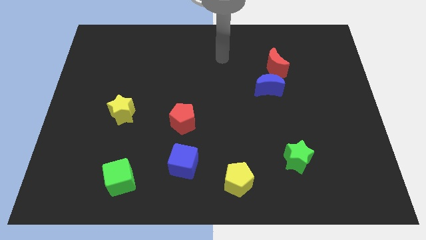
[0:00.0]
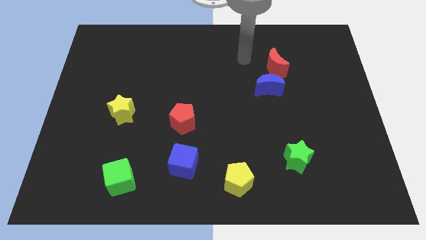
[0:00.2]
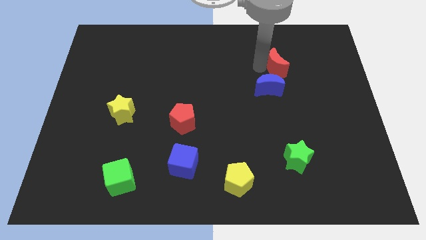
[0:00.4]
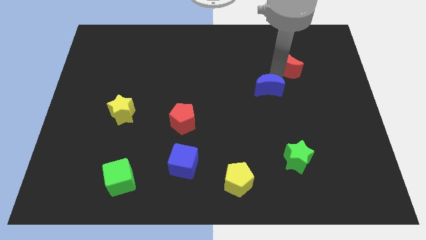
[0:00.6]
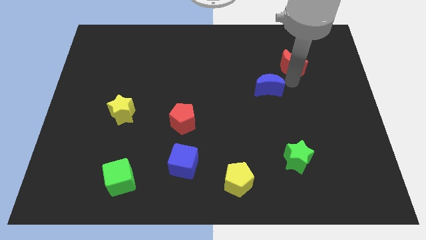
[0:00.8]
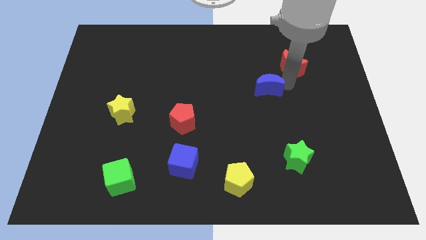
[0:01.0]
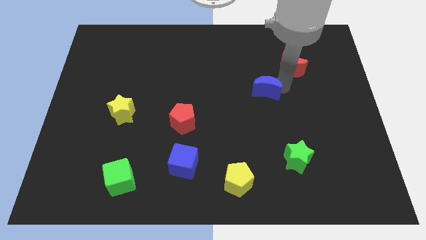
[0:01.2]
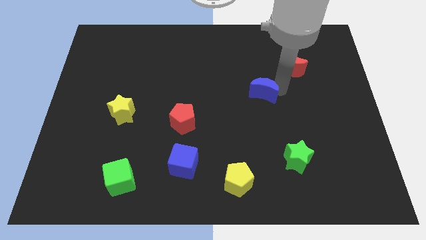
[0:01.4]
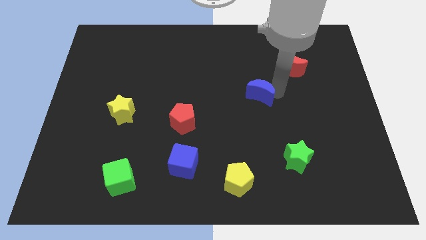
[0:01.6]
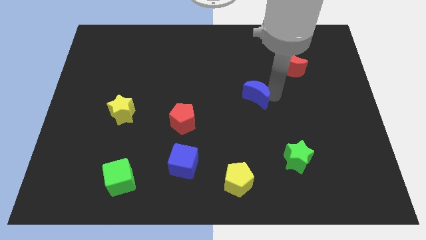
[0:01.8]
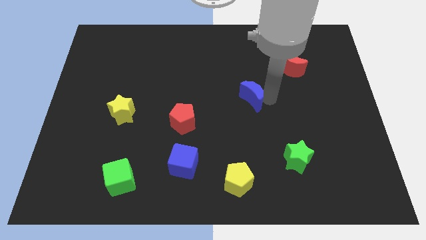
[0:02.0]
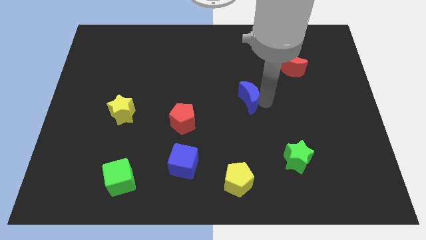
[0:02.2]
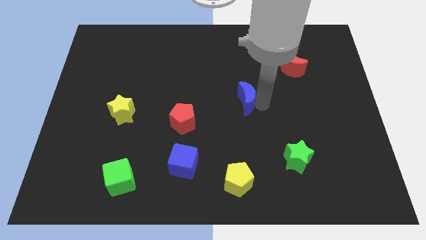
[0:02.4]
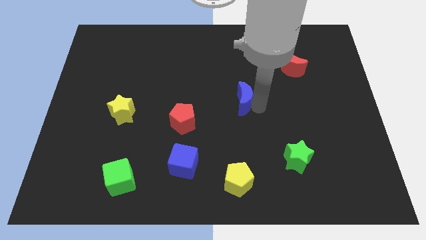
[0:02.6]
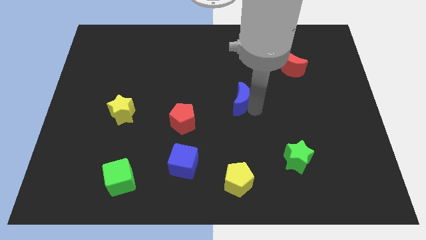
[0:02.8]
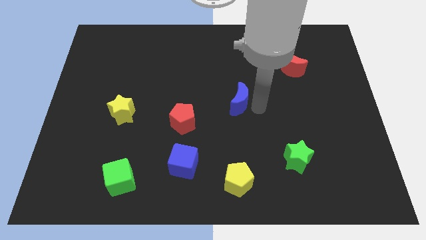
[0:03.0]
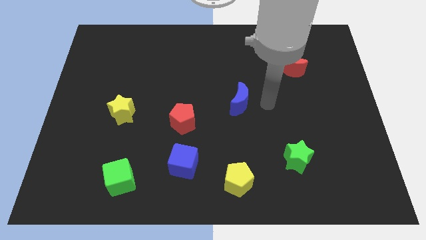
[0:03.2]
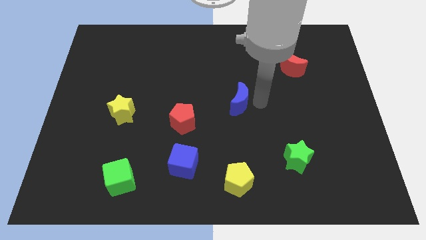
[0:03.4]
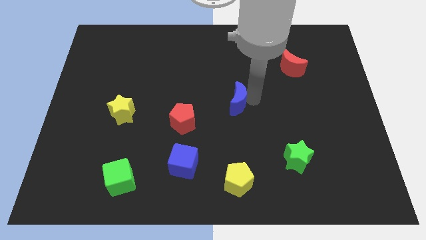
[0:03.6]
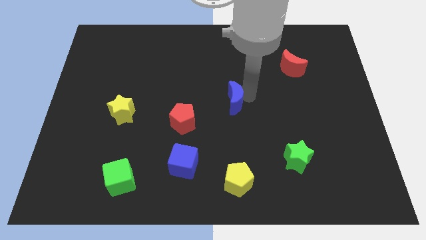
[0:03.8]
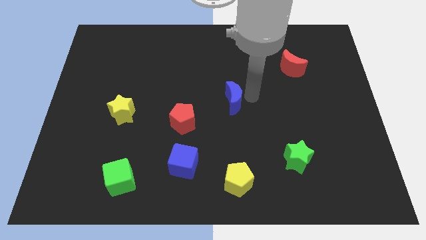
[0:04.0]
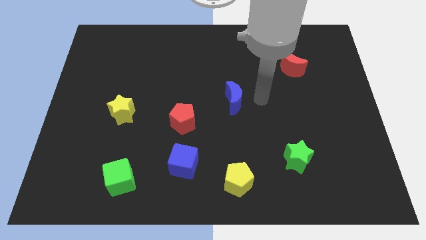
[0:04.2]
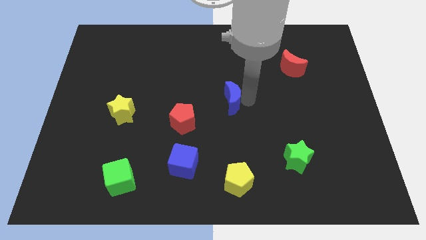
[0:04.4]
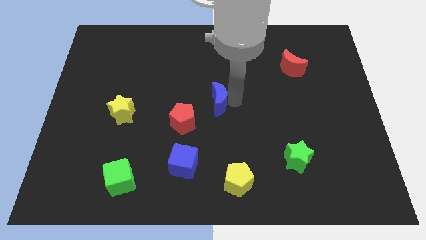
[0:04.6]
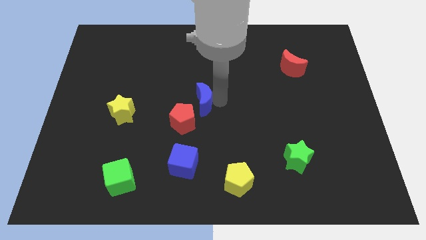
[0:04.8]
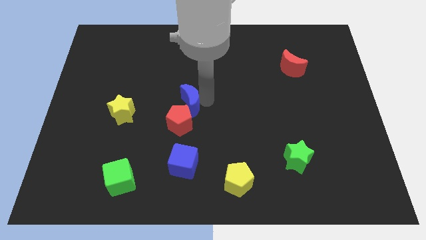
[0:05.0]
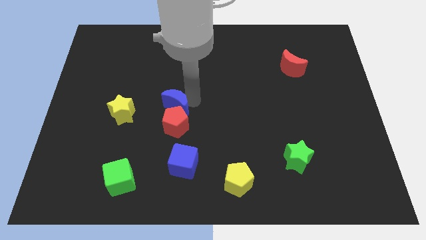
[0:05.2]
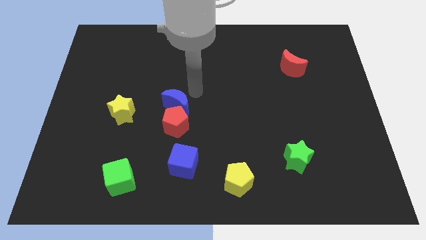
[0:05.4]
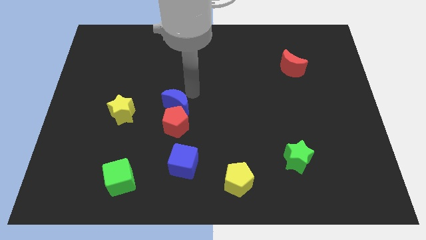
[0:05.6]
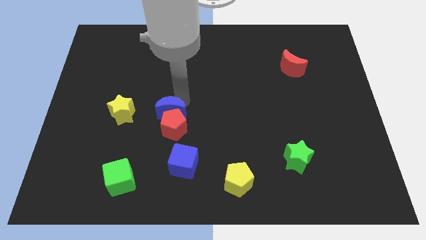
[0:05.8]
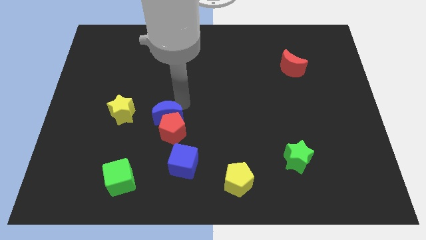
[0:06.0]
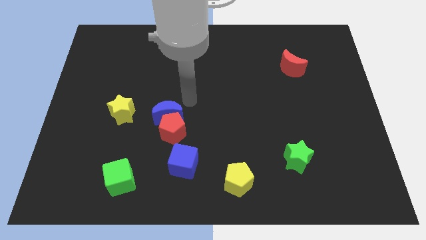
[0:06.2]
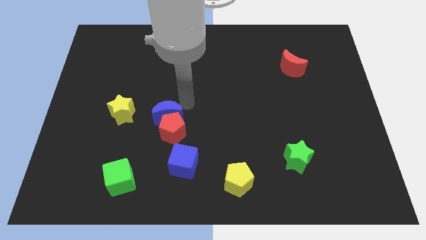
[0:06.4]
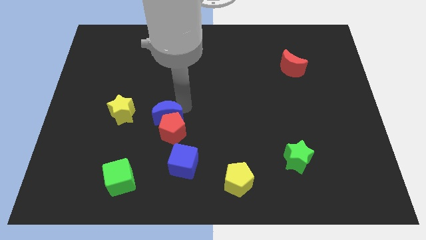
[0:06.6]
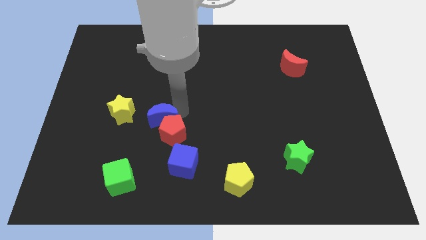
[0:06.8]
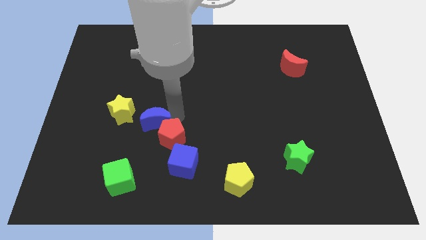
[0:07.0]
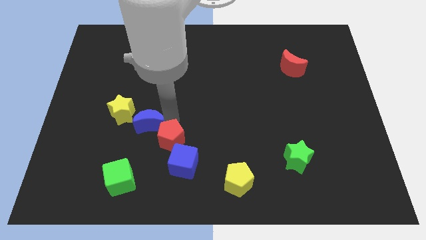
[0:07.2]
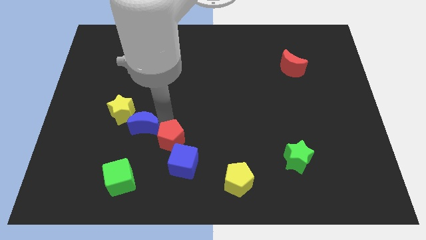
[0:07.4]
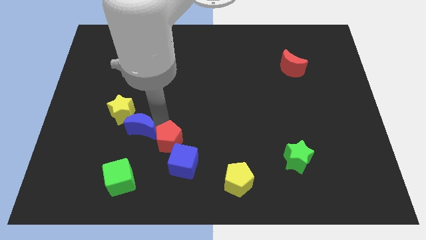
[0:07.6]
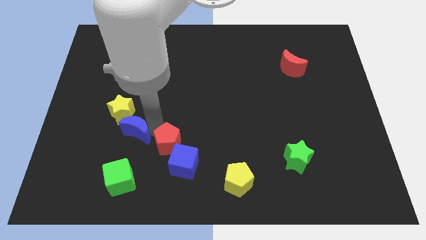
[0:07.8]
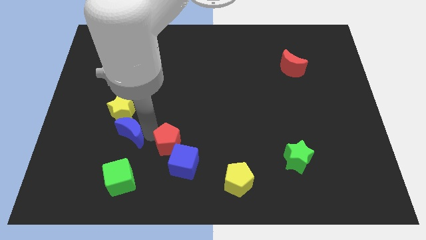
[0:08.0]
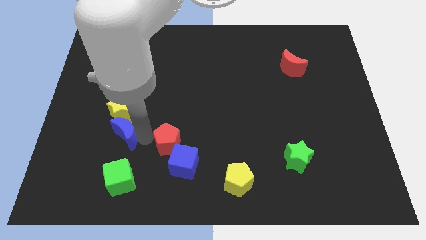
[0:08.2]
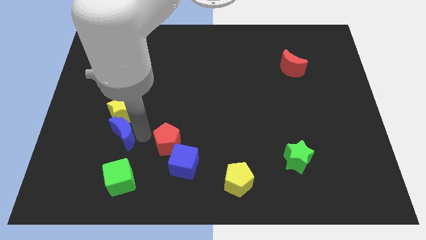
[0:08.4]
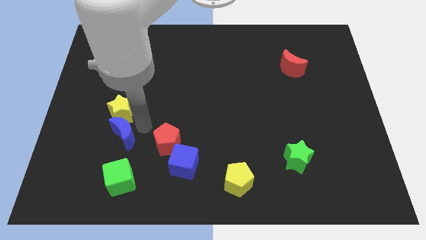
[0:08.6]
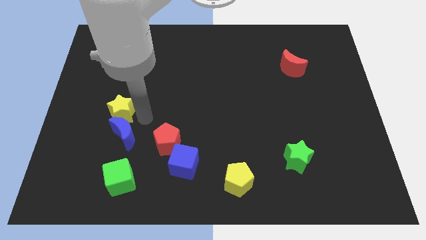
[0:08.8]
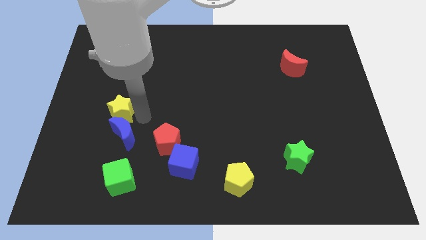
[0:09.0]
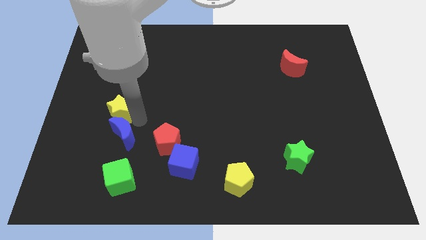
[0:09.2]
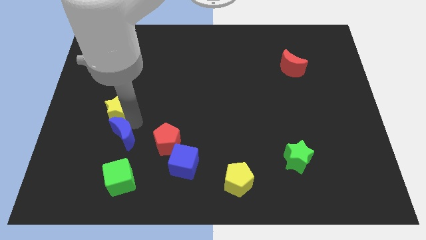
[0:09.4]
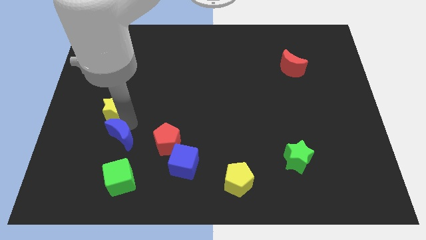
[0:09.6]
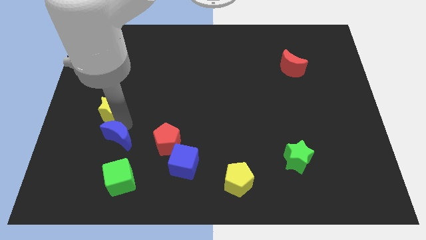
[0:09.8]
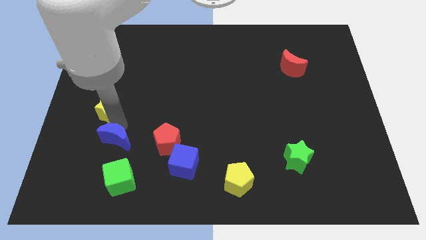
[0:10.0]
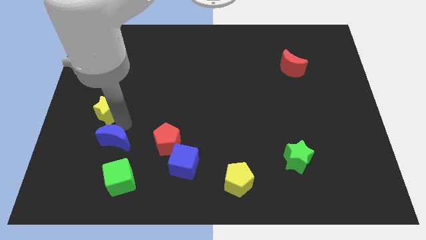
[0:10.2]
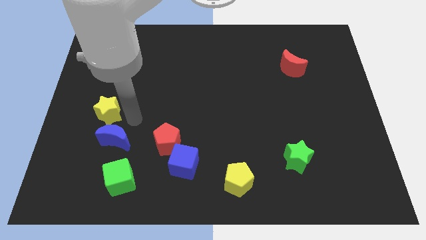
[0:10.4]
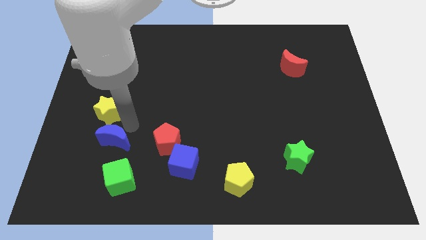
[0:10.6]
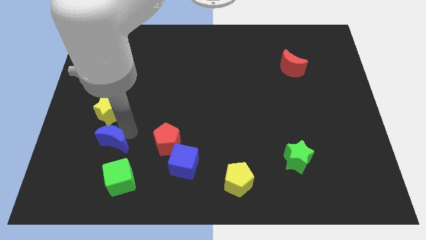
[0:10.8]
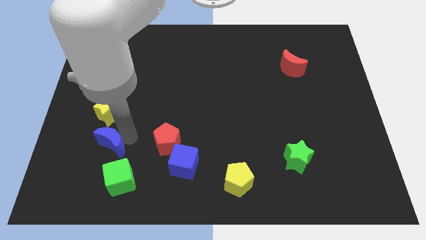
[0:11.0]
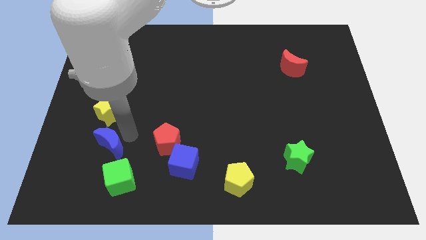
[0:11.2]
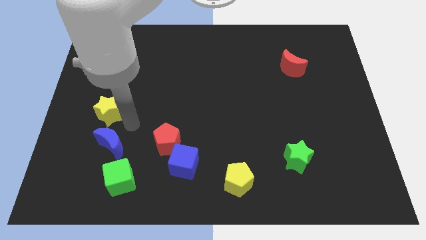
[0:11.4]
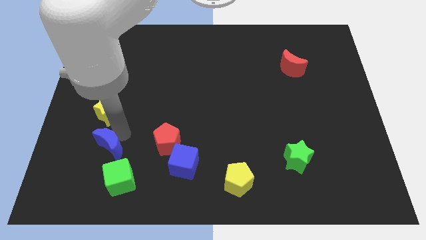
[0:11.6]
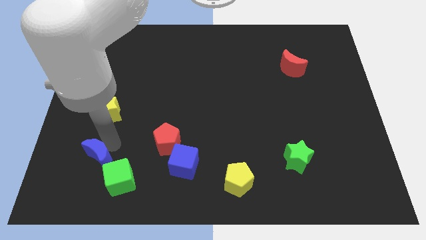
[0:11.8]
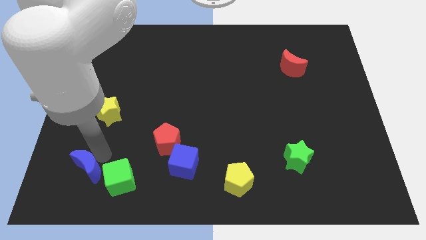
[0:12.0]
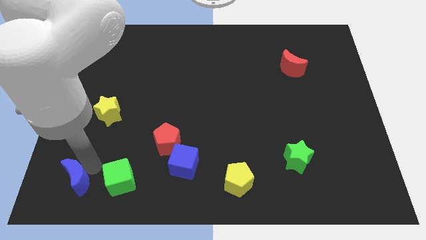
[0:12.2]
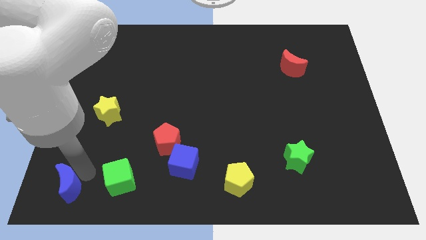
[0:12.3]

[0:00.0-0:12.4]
put the blue moon to the bottom left corner
